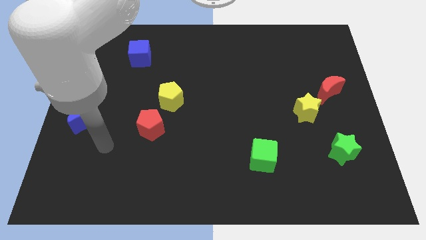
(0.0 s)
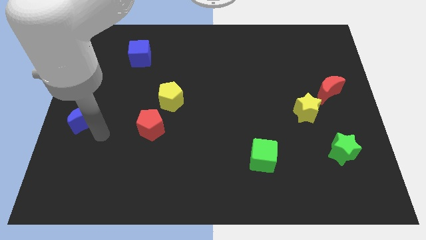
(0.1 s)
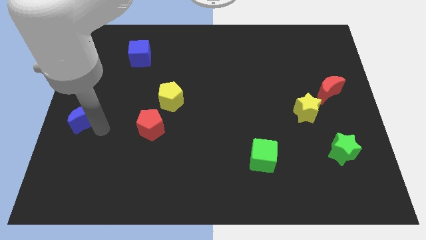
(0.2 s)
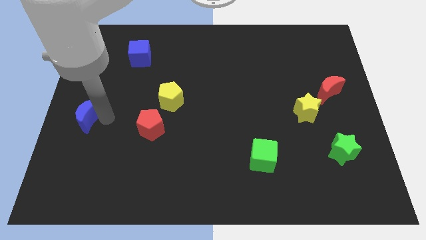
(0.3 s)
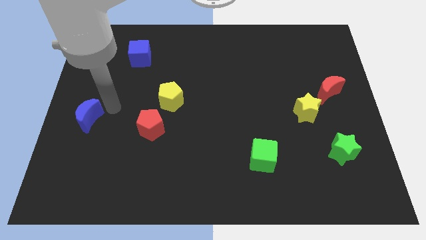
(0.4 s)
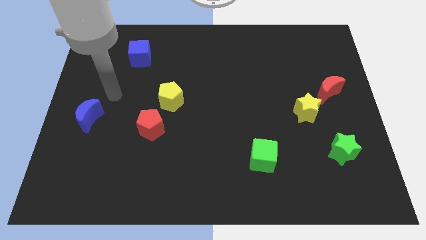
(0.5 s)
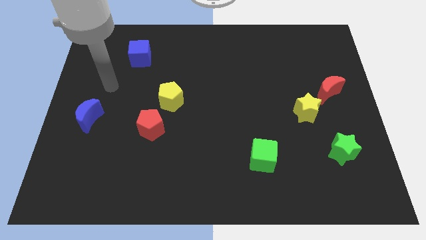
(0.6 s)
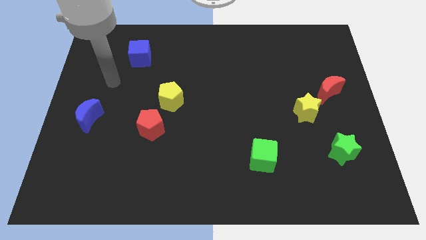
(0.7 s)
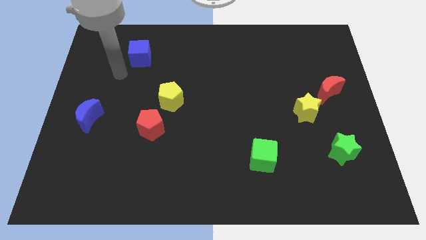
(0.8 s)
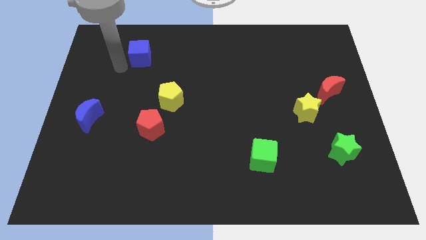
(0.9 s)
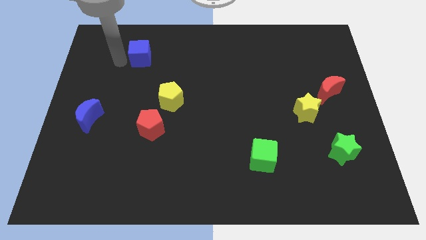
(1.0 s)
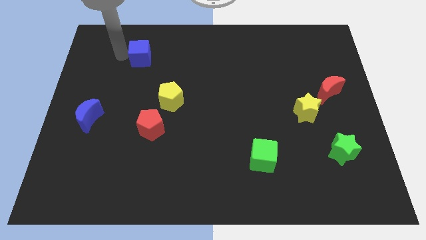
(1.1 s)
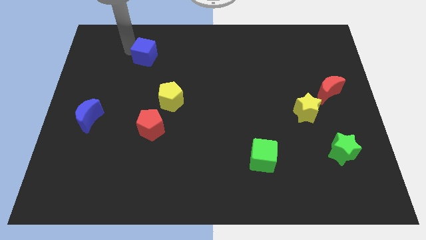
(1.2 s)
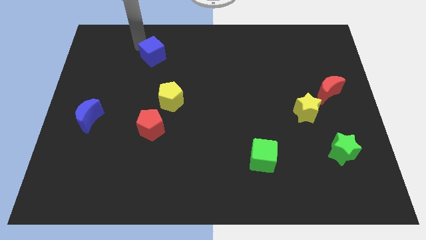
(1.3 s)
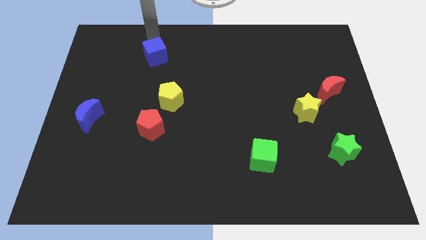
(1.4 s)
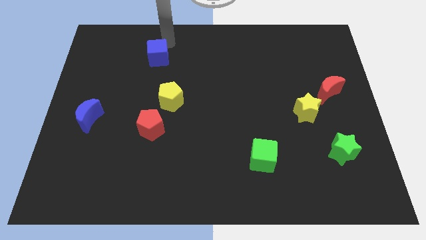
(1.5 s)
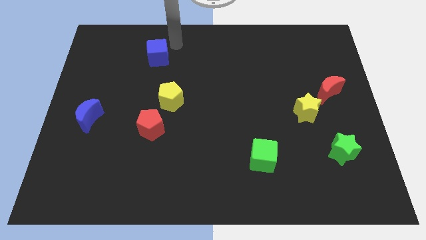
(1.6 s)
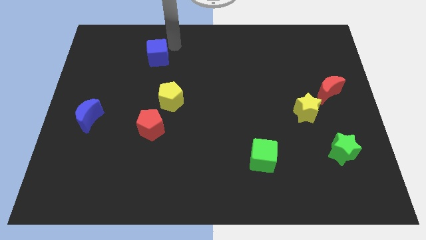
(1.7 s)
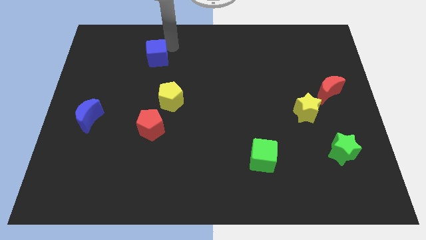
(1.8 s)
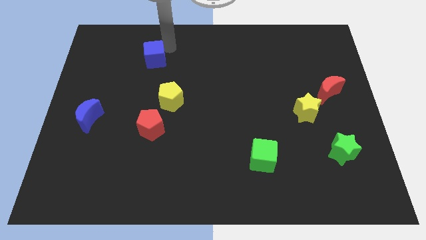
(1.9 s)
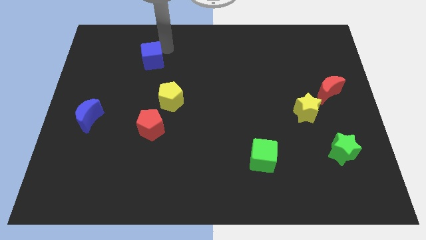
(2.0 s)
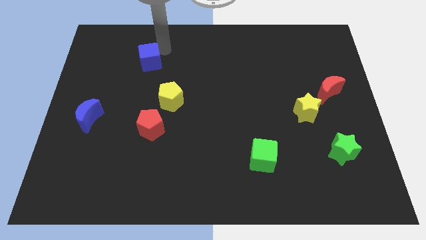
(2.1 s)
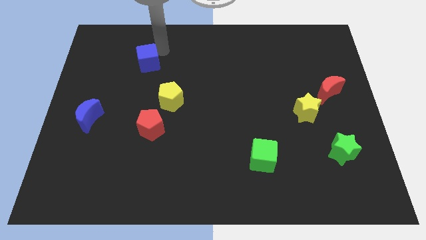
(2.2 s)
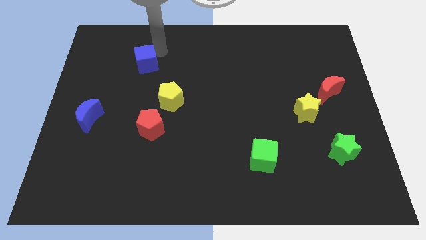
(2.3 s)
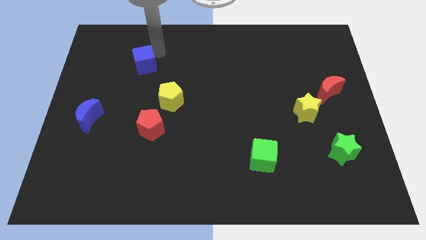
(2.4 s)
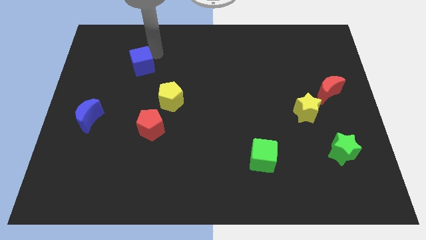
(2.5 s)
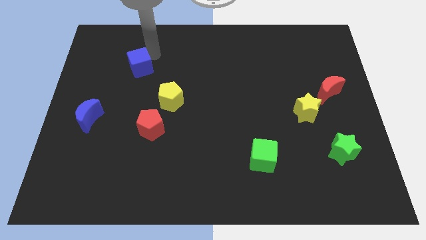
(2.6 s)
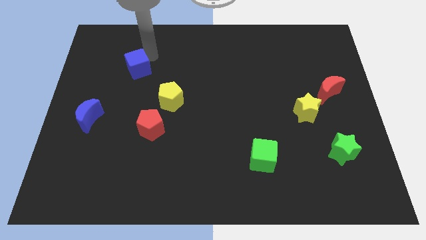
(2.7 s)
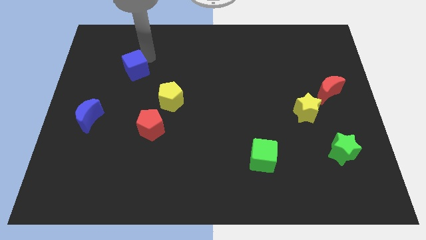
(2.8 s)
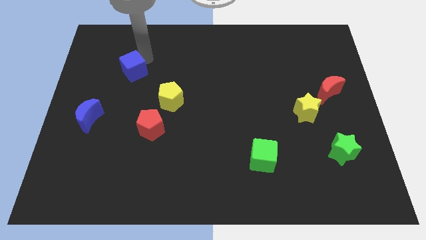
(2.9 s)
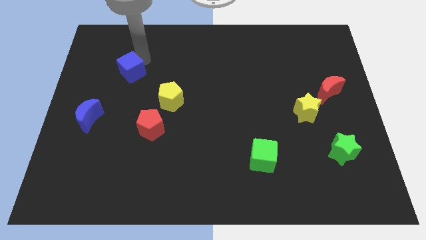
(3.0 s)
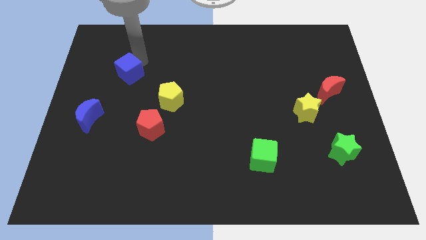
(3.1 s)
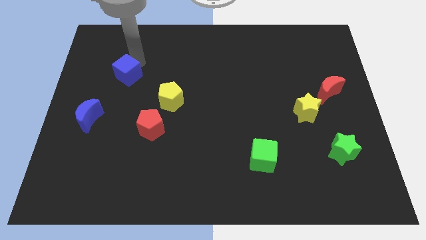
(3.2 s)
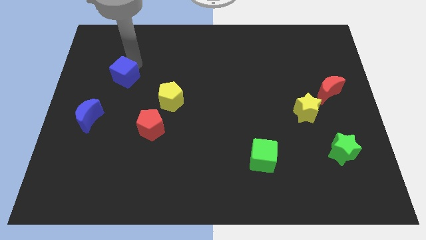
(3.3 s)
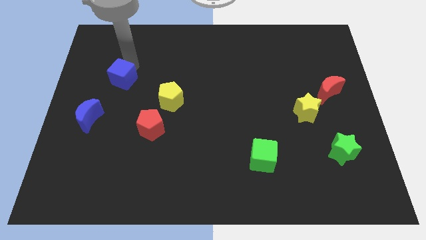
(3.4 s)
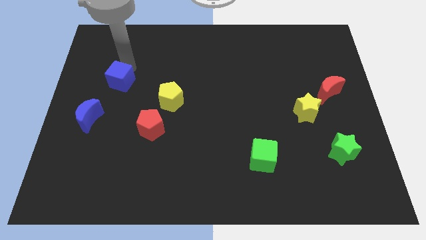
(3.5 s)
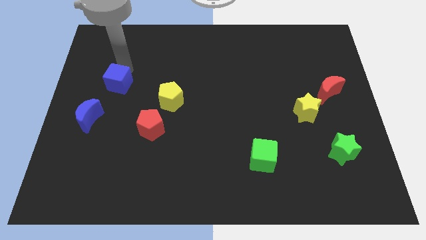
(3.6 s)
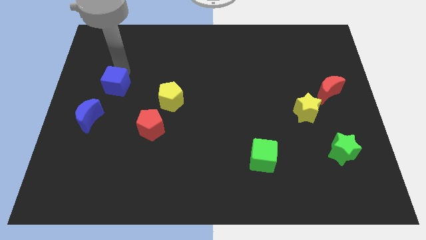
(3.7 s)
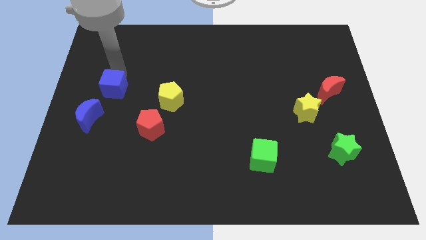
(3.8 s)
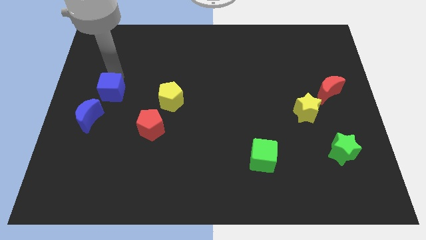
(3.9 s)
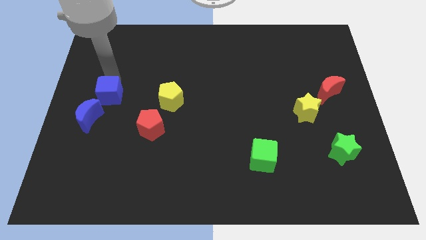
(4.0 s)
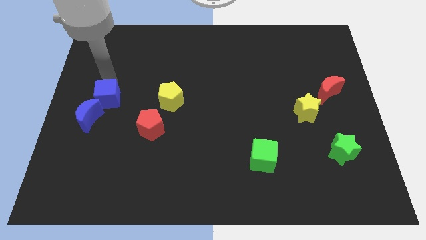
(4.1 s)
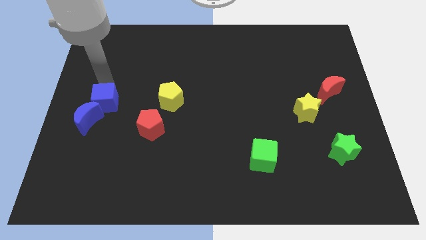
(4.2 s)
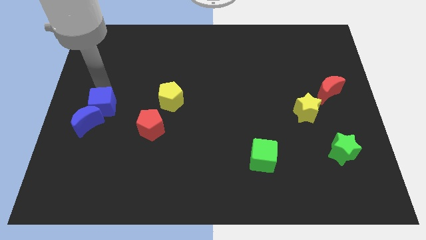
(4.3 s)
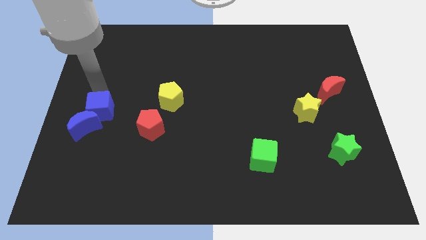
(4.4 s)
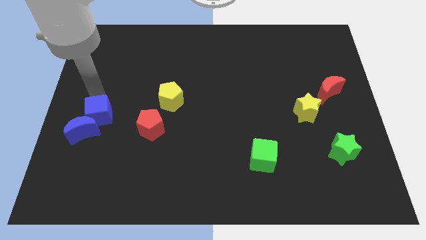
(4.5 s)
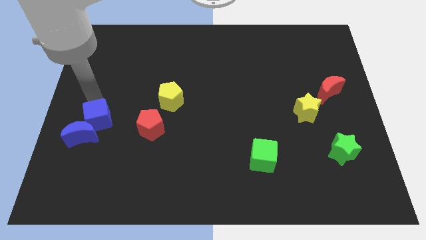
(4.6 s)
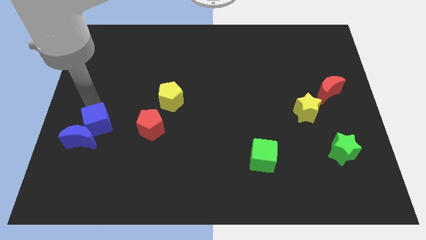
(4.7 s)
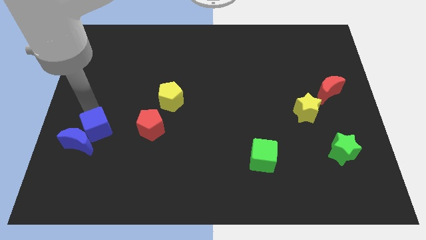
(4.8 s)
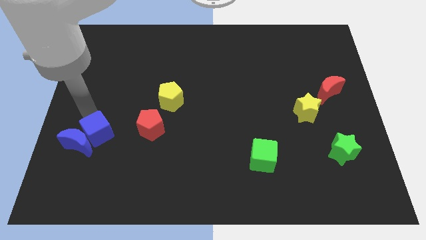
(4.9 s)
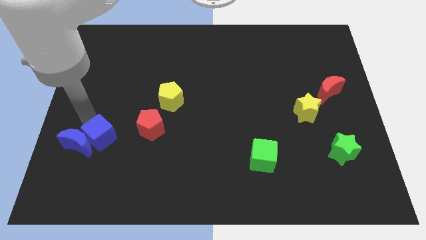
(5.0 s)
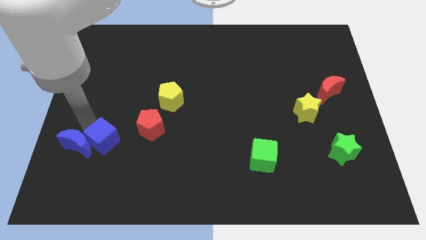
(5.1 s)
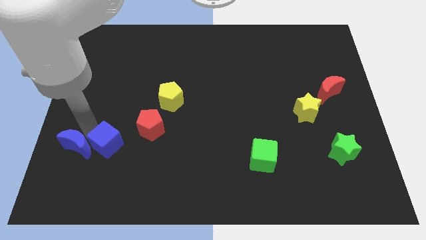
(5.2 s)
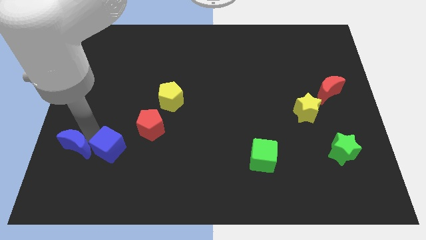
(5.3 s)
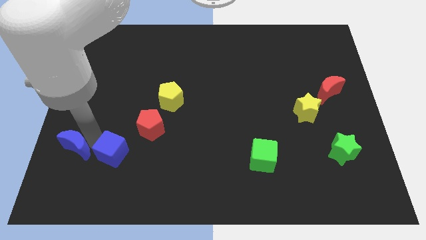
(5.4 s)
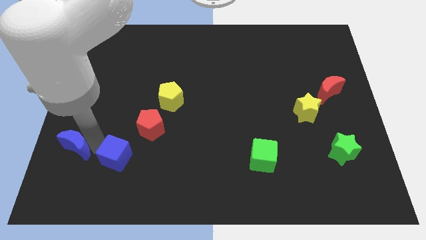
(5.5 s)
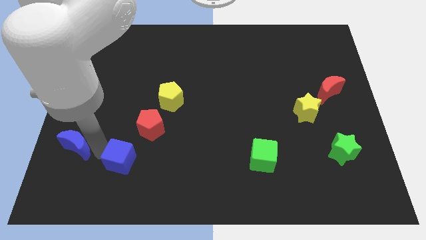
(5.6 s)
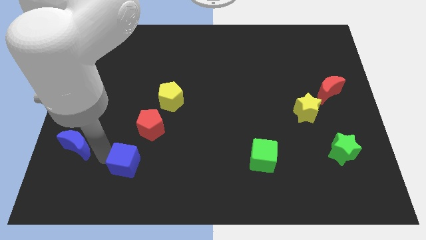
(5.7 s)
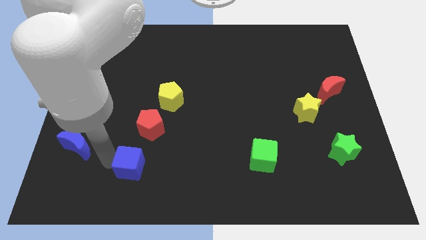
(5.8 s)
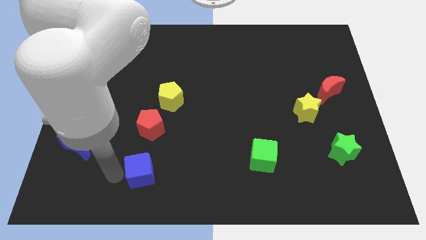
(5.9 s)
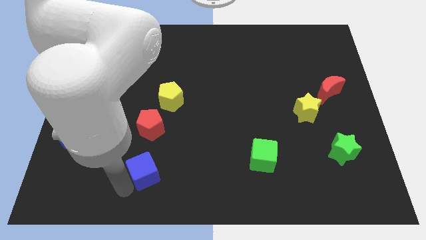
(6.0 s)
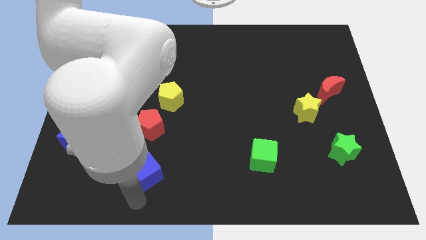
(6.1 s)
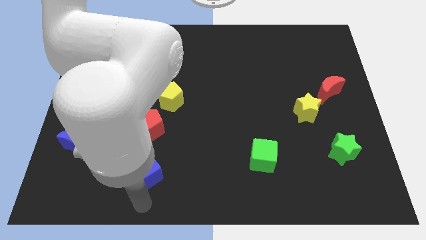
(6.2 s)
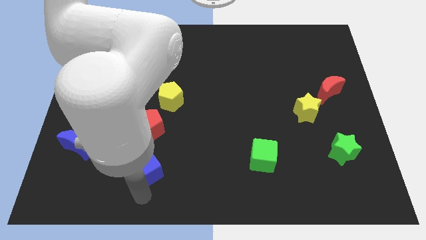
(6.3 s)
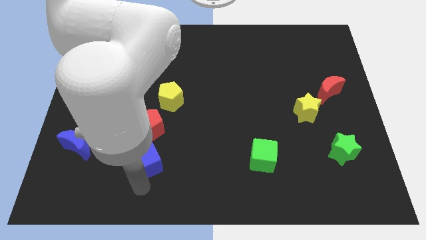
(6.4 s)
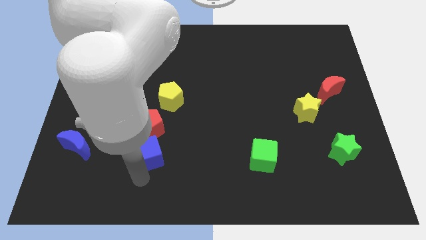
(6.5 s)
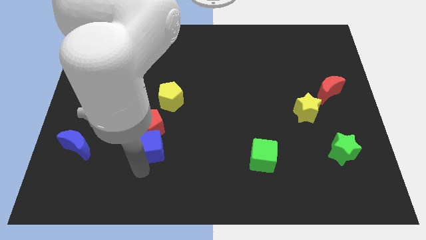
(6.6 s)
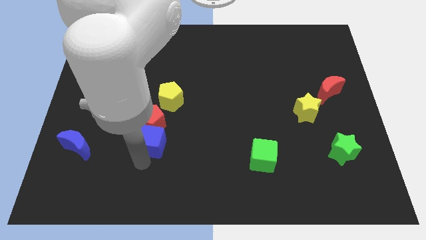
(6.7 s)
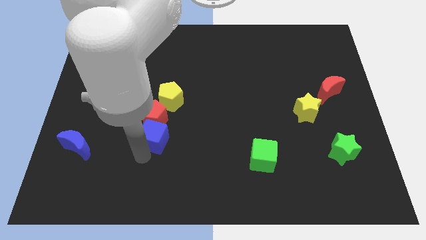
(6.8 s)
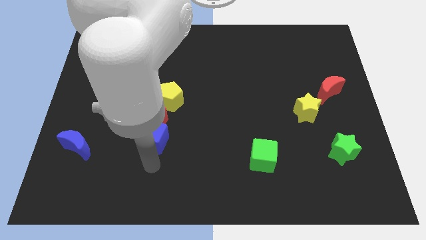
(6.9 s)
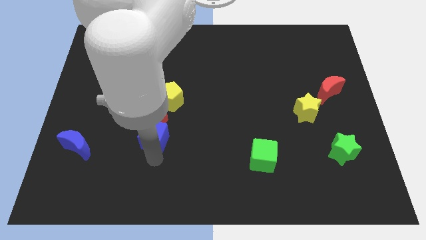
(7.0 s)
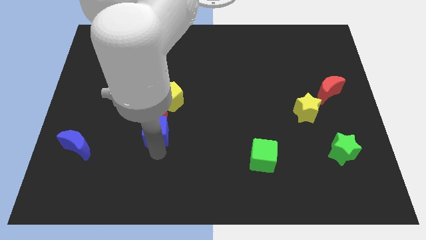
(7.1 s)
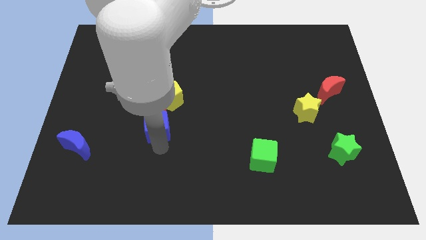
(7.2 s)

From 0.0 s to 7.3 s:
slightly push the blue cube down and then to the right

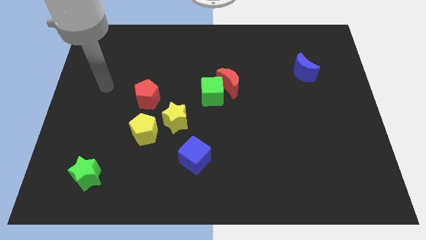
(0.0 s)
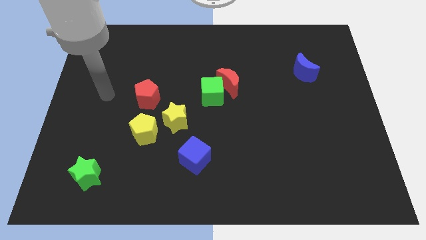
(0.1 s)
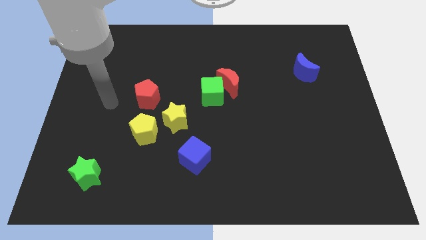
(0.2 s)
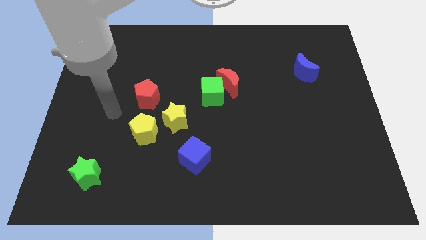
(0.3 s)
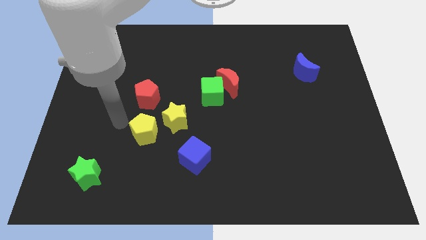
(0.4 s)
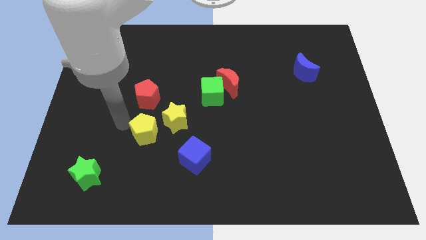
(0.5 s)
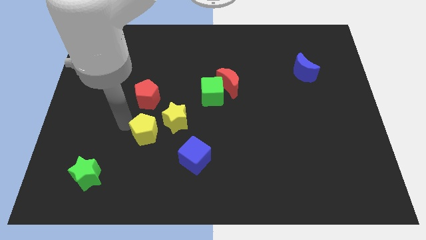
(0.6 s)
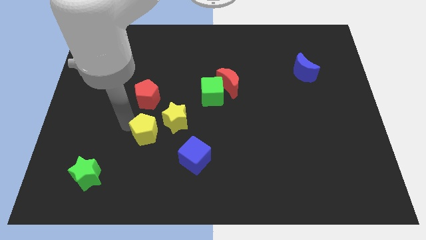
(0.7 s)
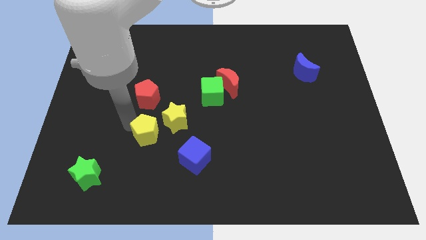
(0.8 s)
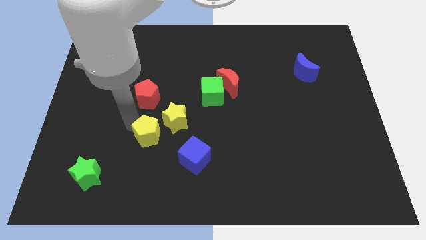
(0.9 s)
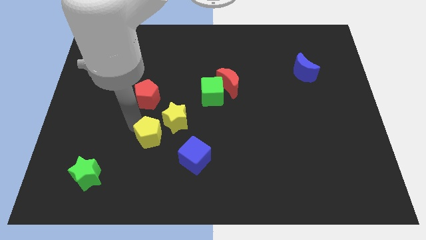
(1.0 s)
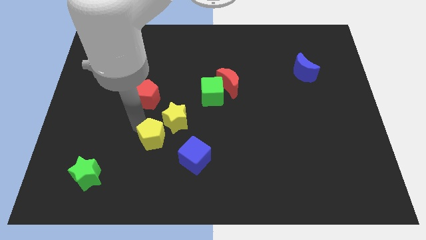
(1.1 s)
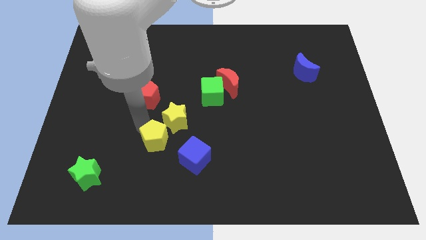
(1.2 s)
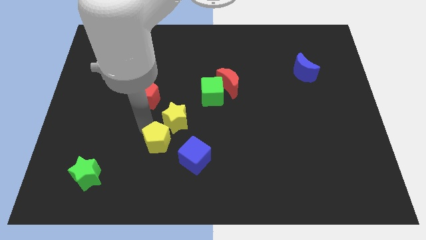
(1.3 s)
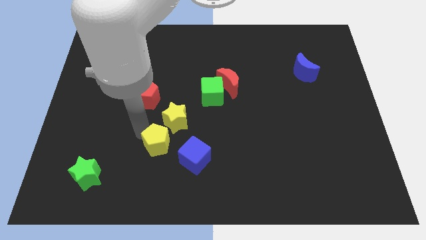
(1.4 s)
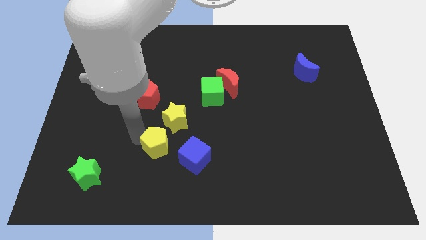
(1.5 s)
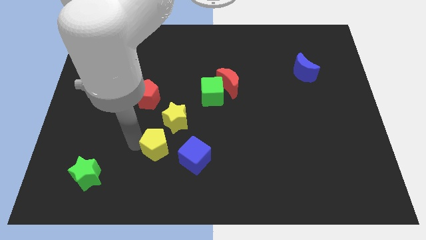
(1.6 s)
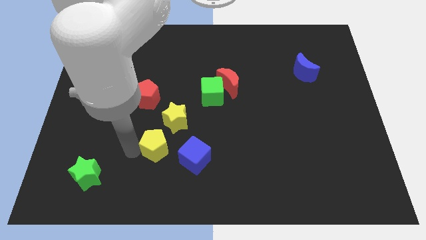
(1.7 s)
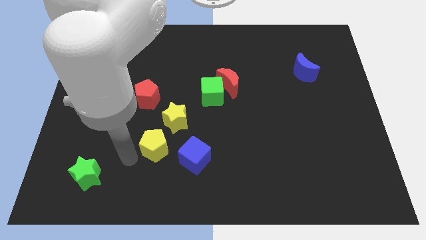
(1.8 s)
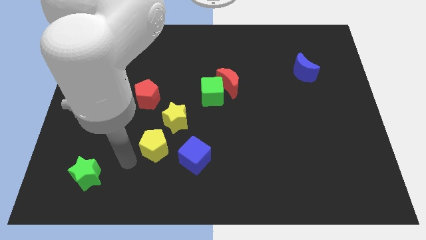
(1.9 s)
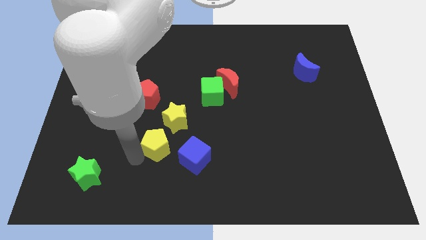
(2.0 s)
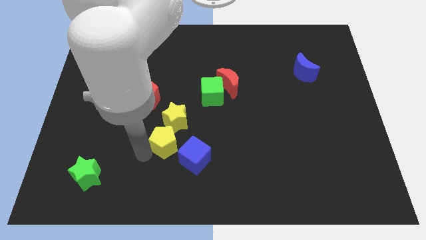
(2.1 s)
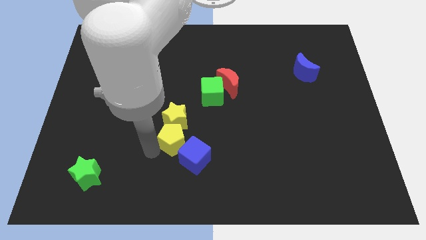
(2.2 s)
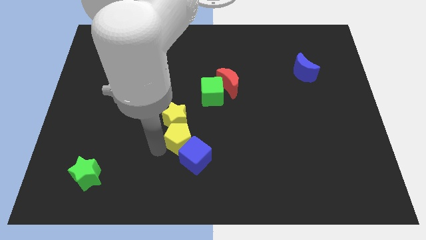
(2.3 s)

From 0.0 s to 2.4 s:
slightly push the yellow pentagon to the right
